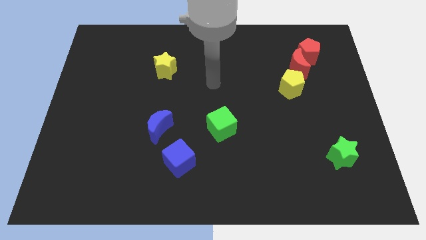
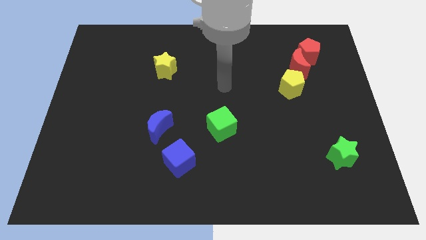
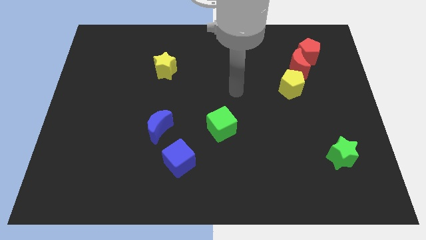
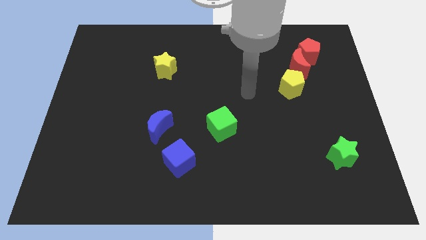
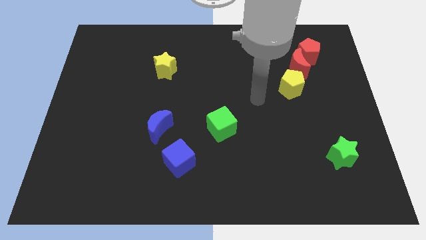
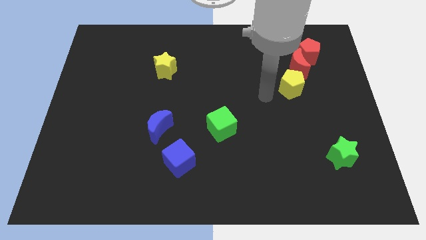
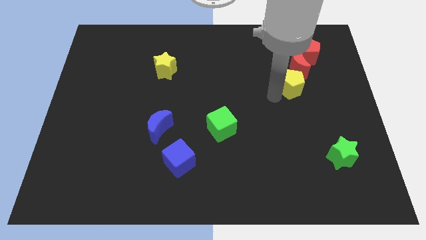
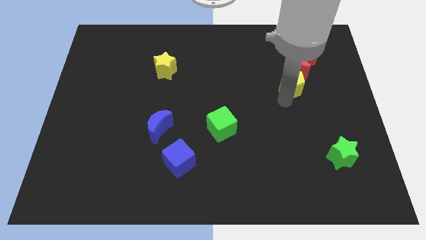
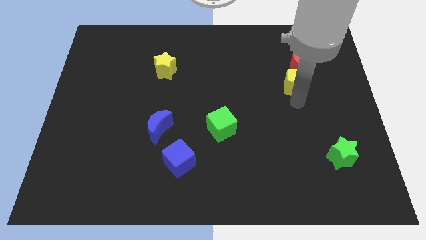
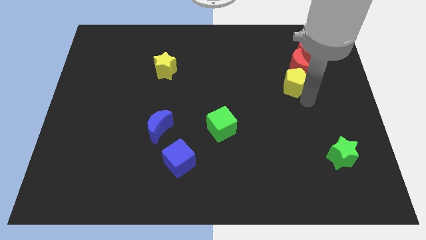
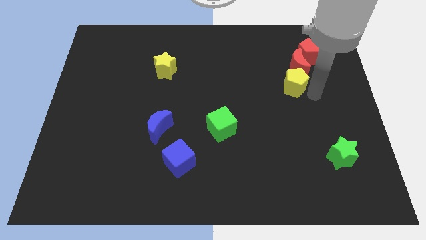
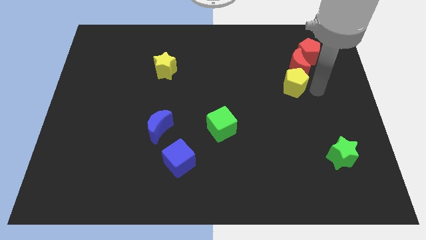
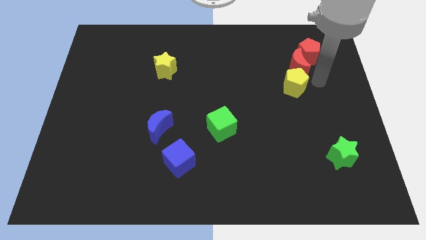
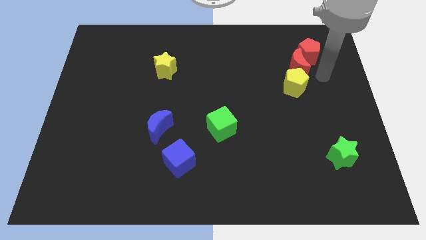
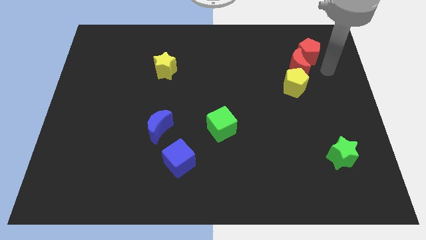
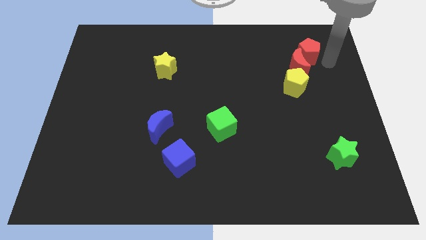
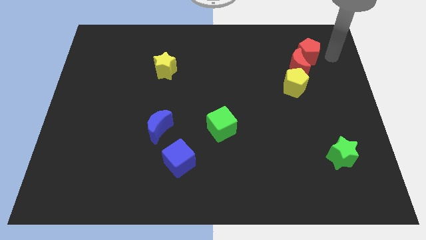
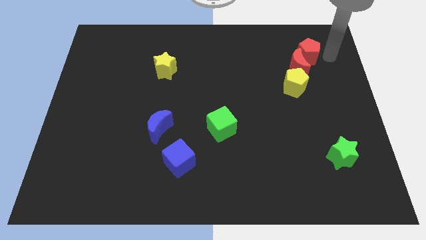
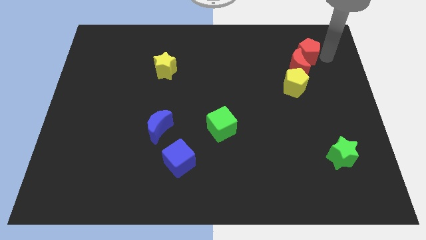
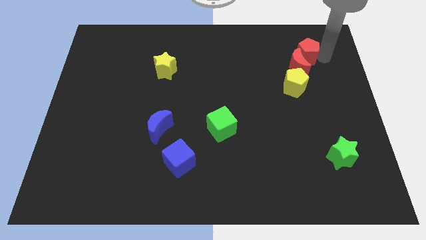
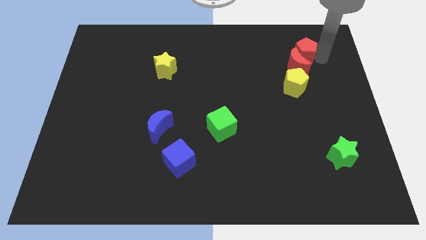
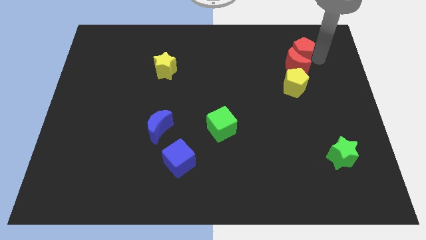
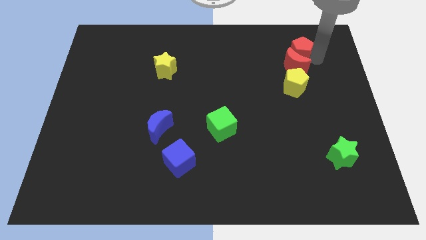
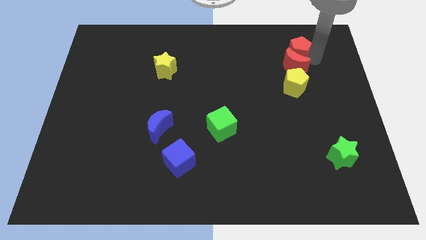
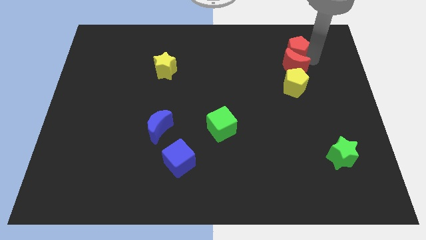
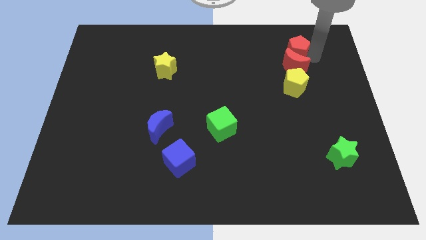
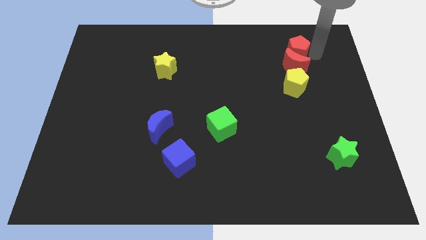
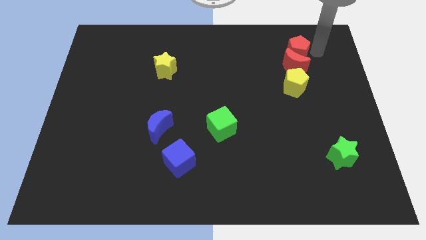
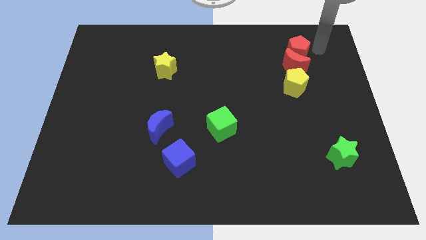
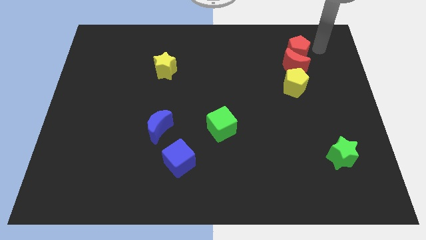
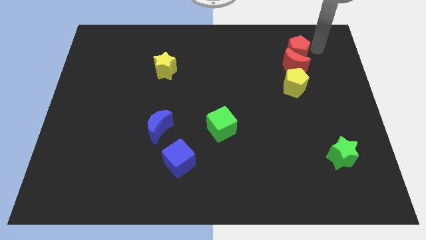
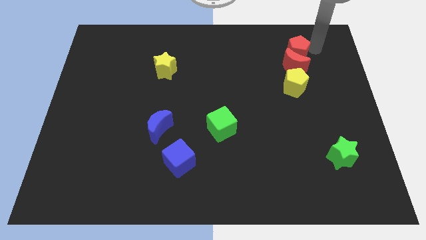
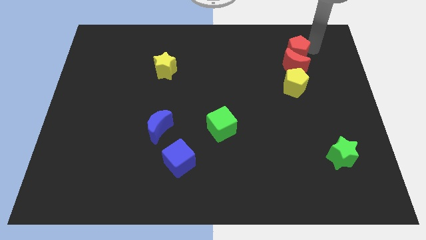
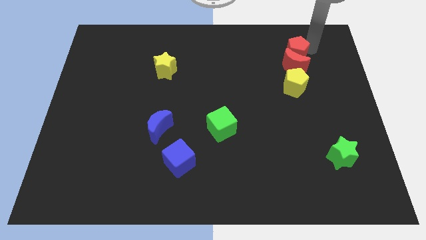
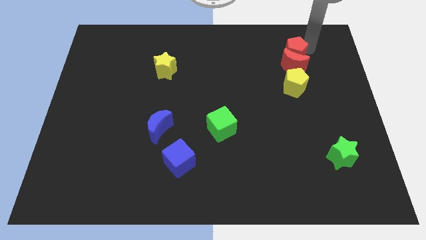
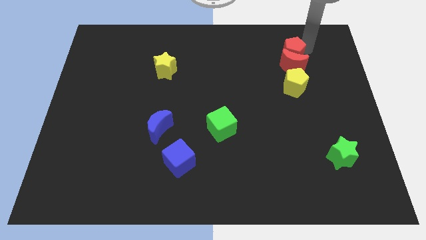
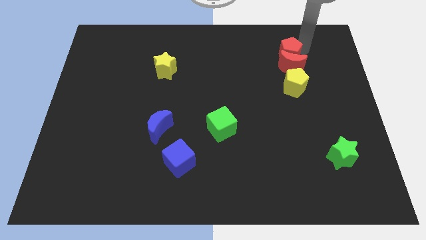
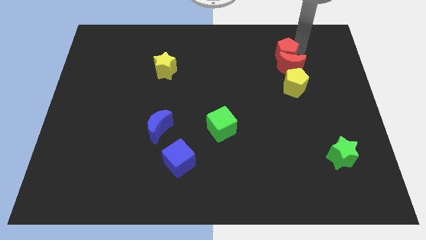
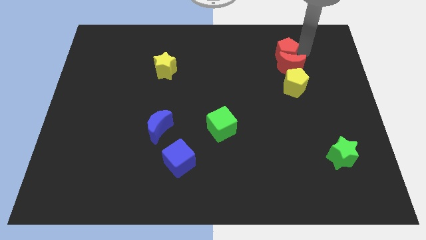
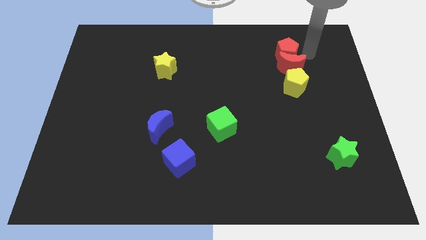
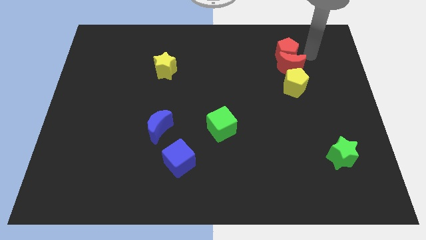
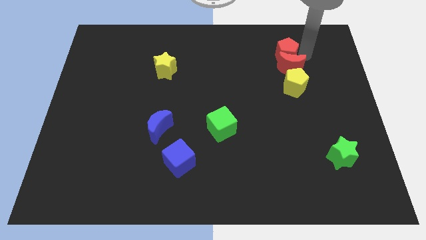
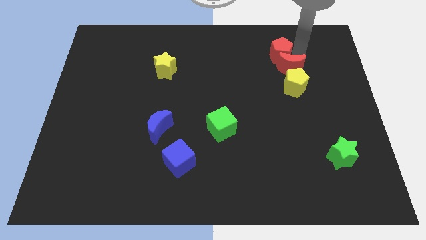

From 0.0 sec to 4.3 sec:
move the red pentagon a little bit to the left

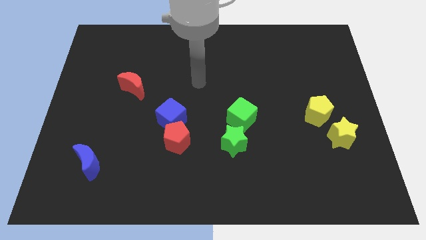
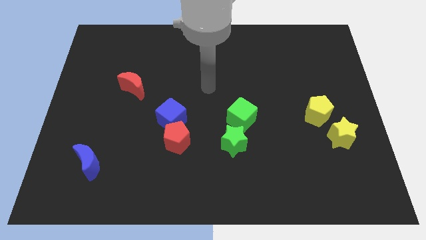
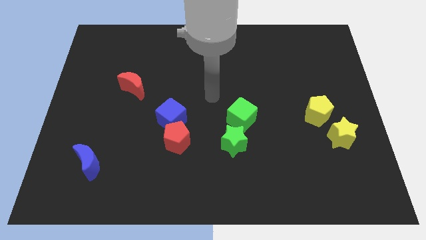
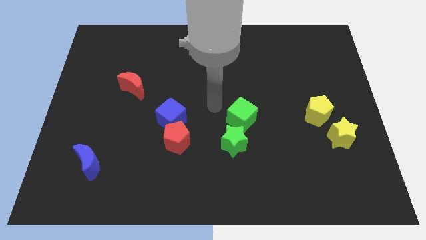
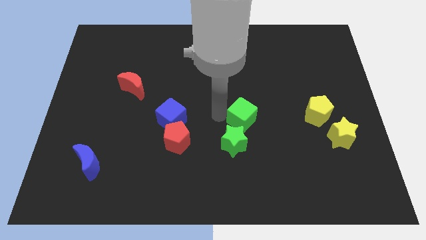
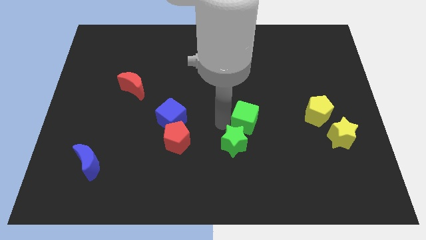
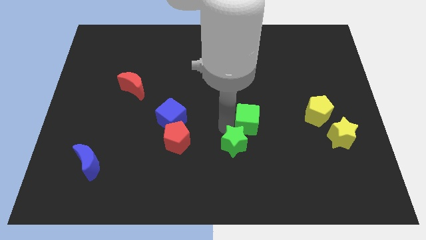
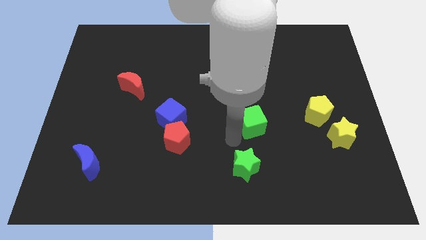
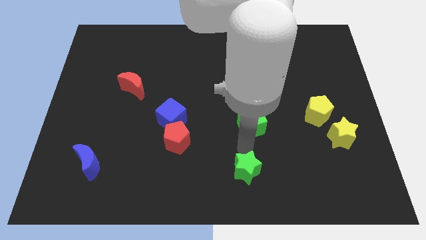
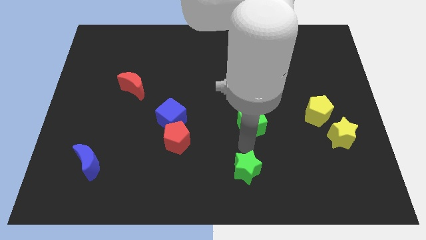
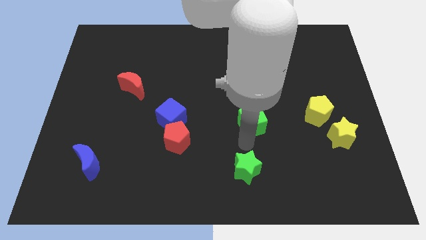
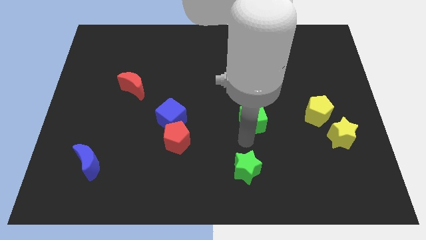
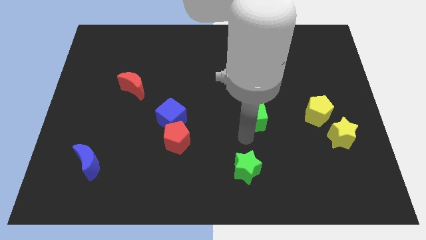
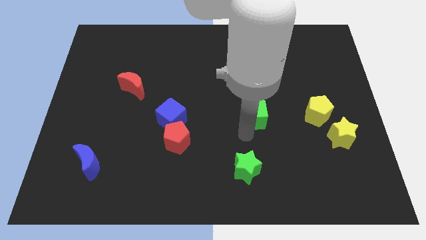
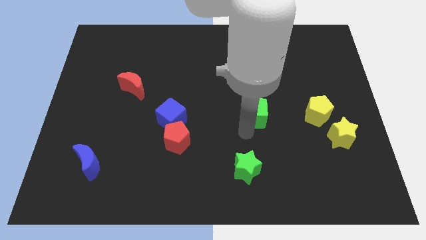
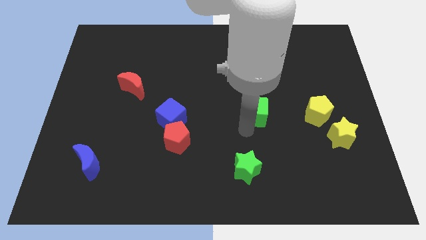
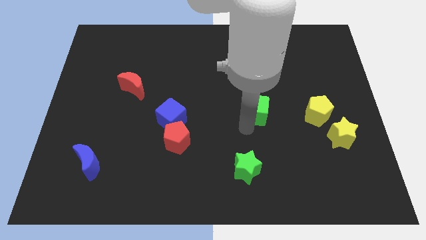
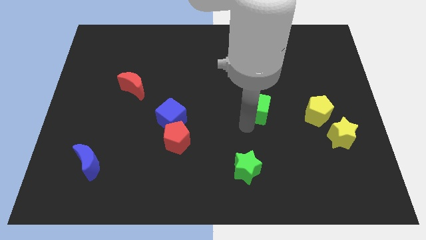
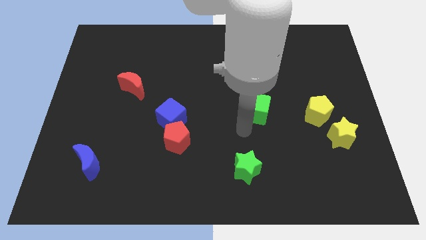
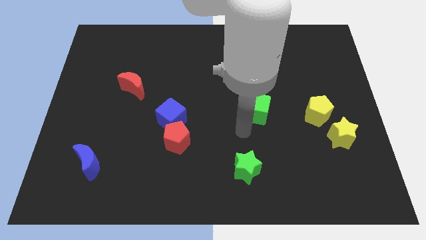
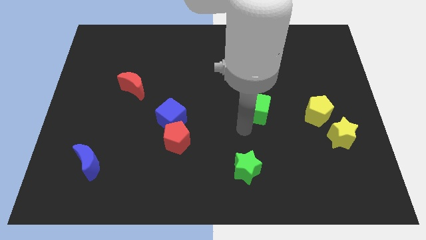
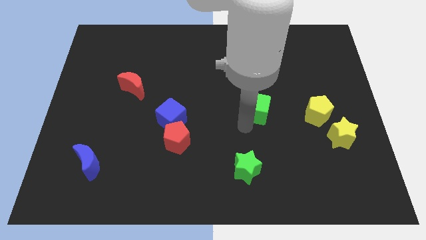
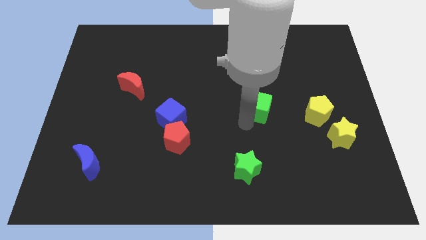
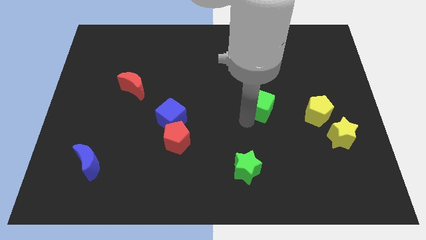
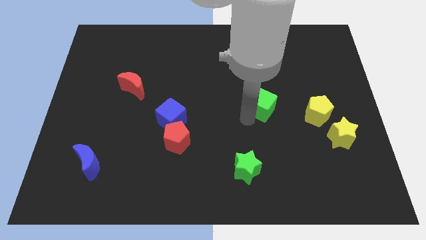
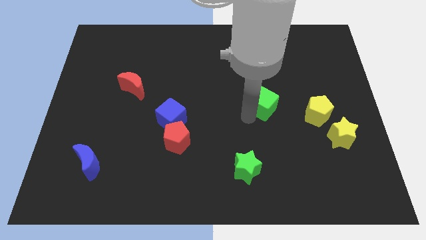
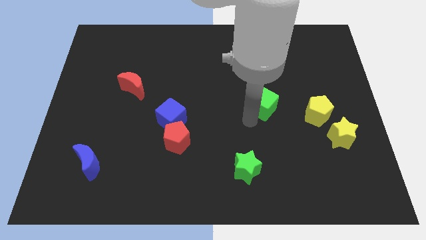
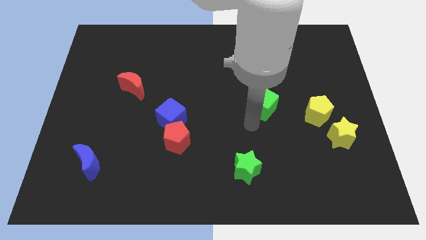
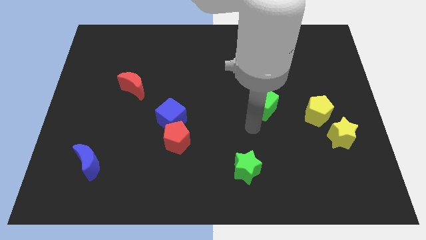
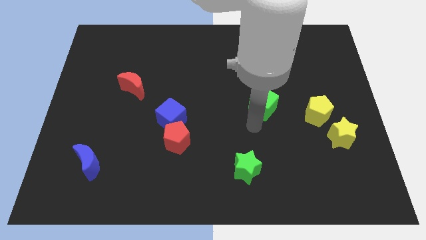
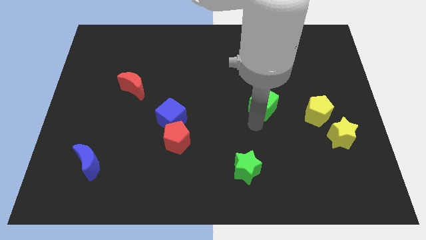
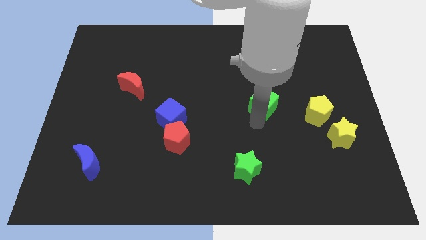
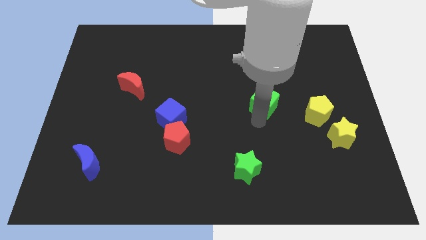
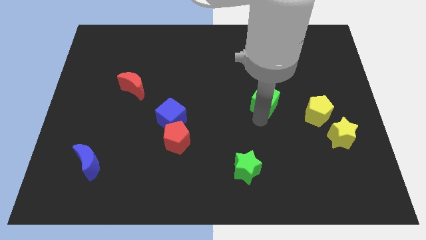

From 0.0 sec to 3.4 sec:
slightly push the green cube diagonally upwards and to the right
